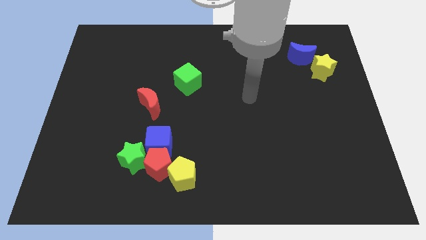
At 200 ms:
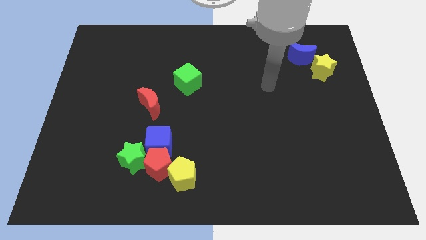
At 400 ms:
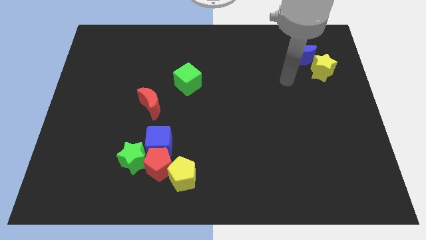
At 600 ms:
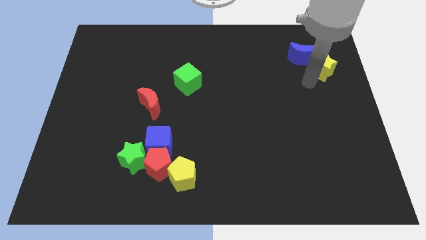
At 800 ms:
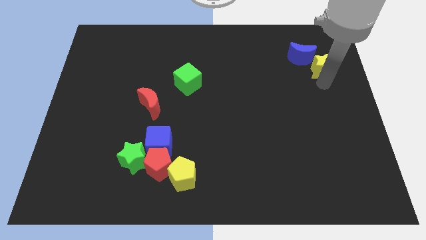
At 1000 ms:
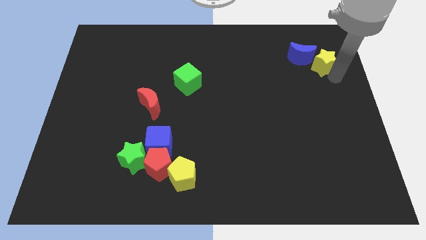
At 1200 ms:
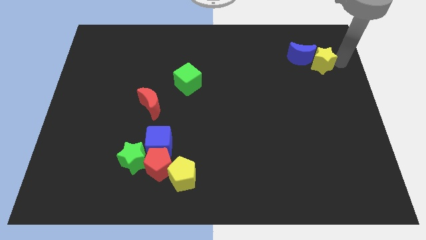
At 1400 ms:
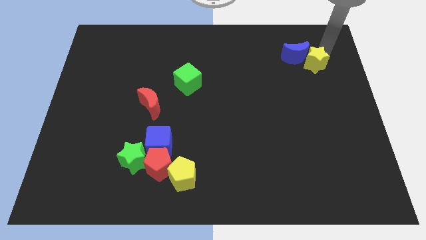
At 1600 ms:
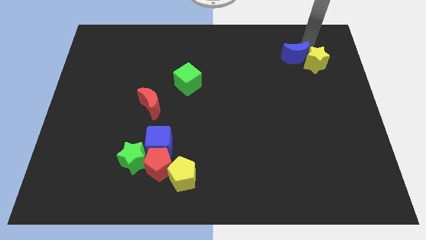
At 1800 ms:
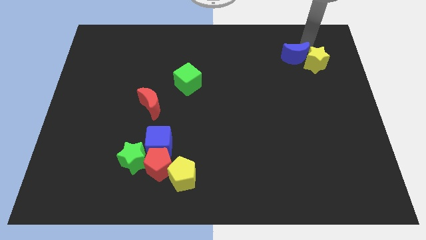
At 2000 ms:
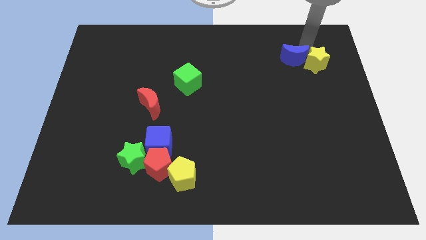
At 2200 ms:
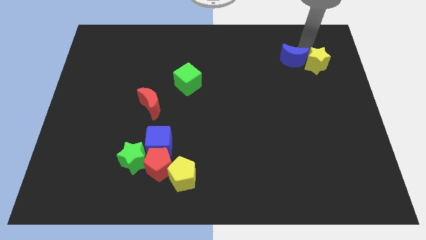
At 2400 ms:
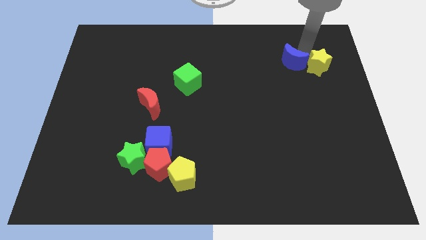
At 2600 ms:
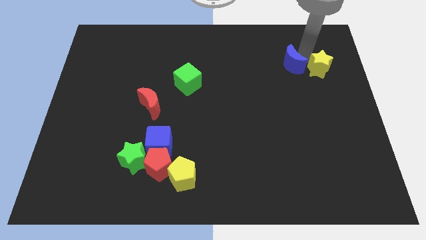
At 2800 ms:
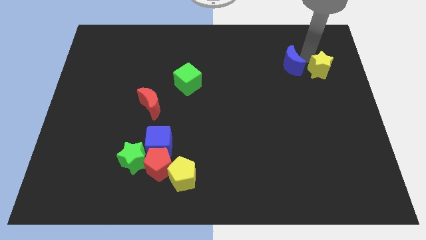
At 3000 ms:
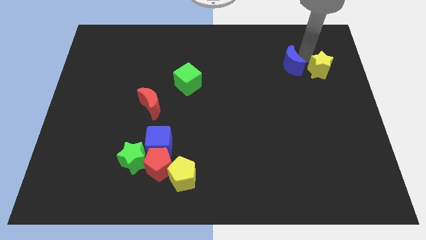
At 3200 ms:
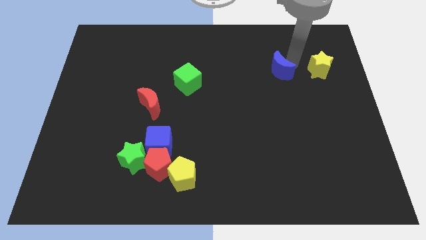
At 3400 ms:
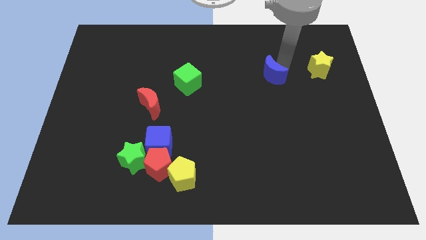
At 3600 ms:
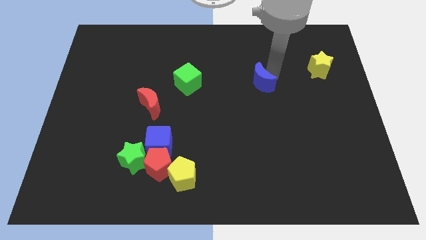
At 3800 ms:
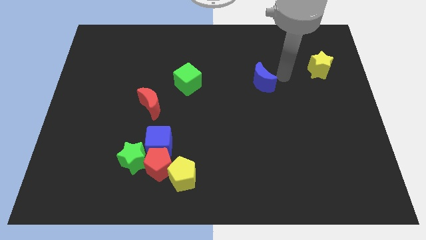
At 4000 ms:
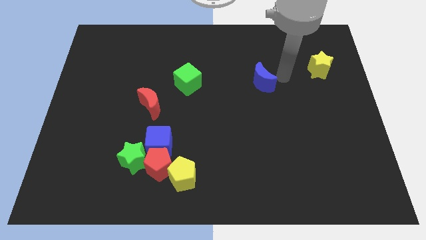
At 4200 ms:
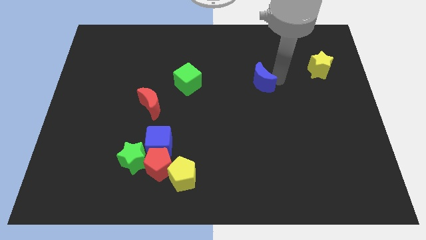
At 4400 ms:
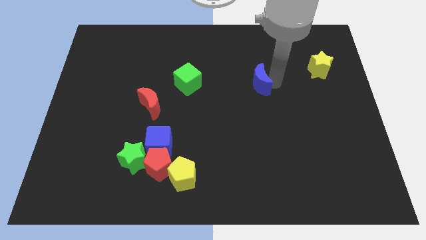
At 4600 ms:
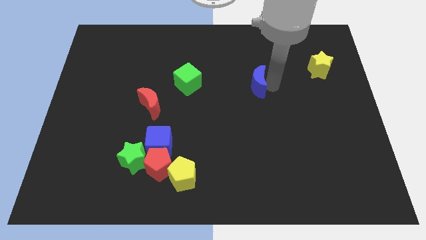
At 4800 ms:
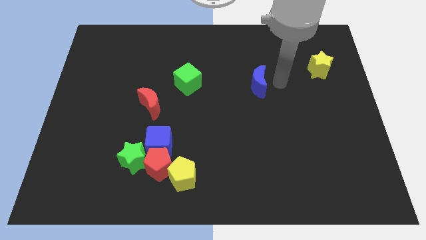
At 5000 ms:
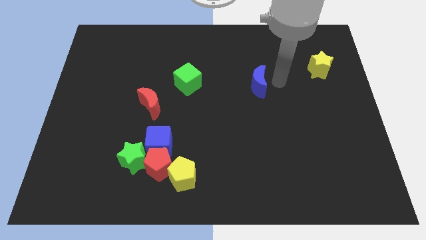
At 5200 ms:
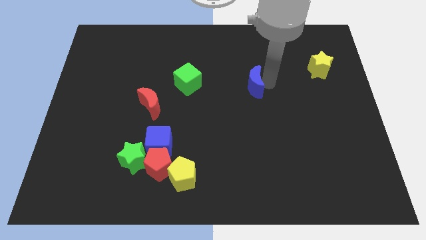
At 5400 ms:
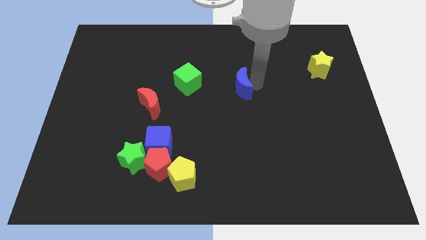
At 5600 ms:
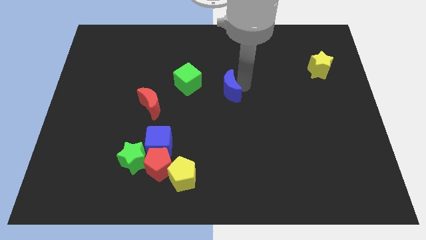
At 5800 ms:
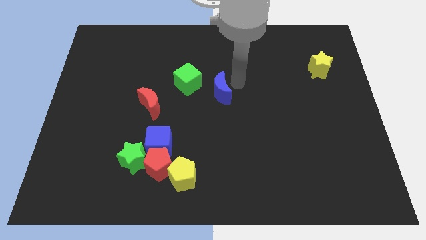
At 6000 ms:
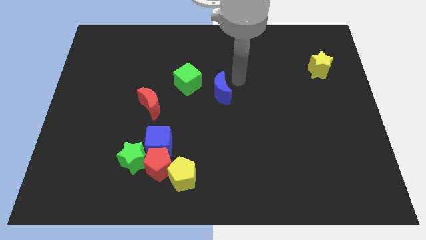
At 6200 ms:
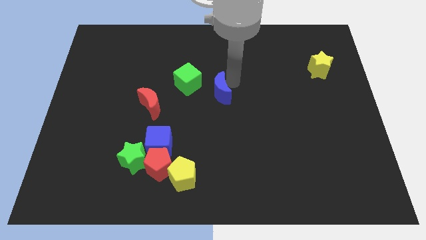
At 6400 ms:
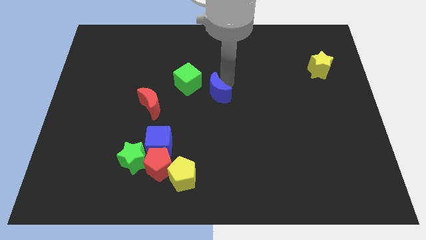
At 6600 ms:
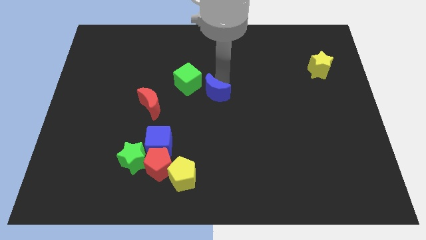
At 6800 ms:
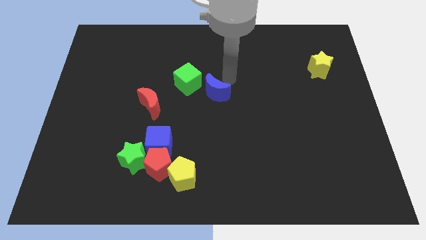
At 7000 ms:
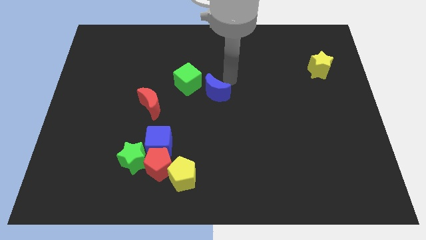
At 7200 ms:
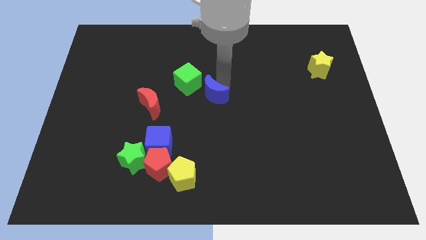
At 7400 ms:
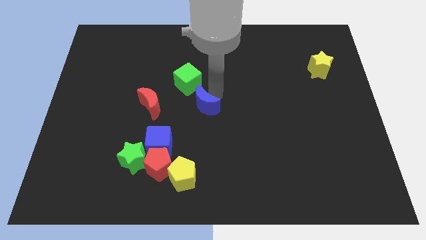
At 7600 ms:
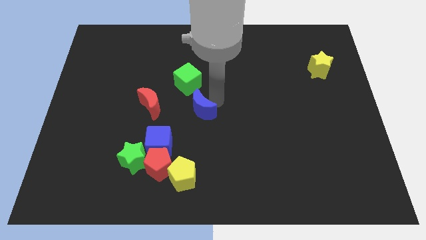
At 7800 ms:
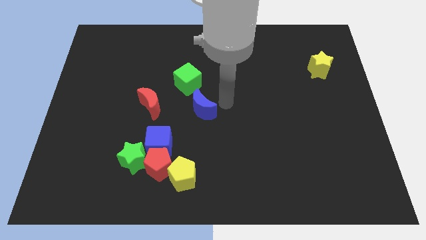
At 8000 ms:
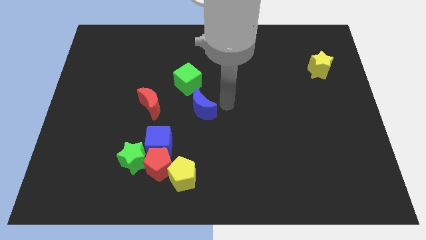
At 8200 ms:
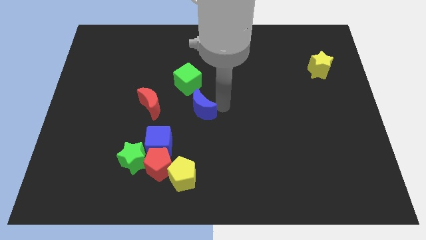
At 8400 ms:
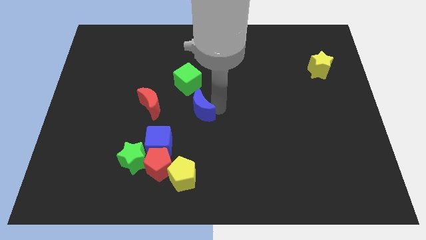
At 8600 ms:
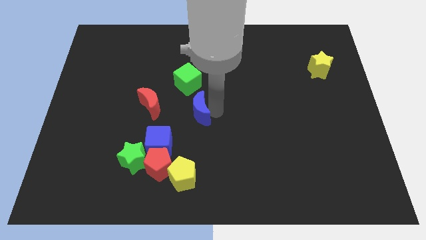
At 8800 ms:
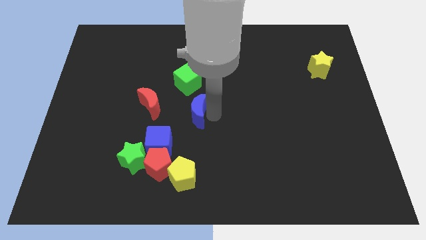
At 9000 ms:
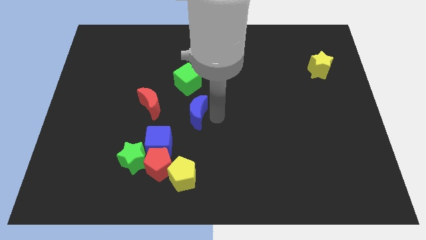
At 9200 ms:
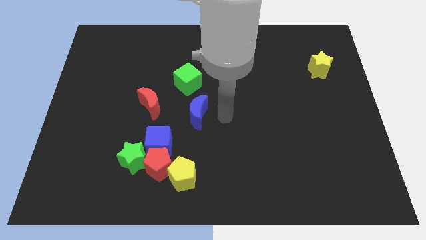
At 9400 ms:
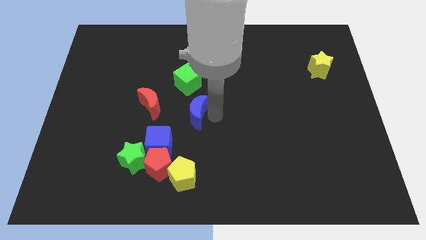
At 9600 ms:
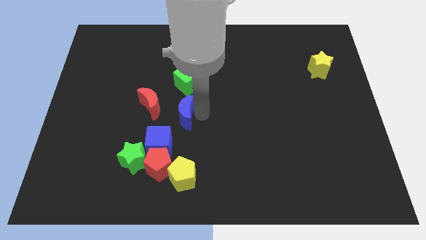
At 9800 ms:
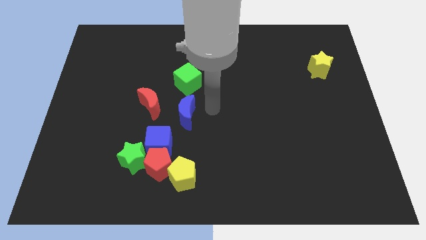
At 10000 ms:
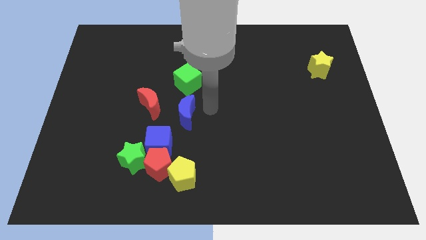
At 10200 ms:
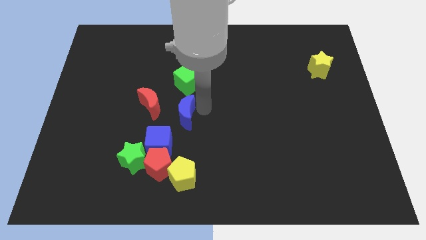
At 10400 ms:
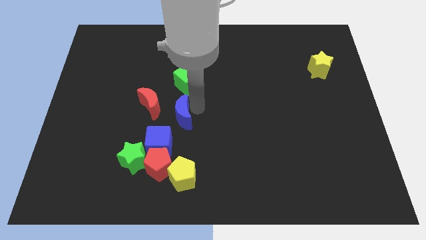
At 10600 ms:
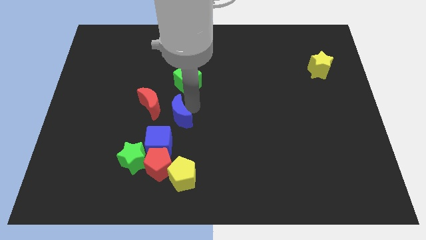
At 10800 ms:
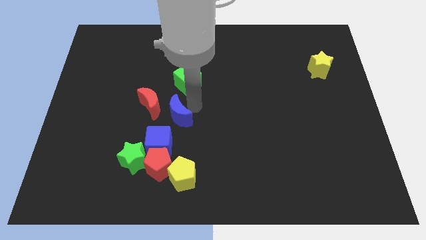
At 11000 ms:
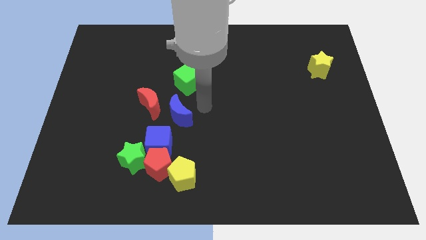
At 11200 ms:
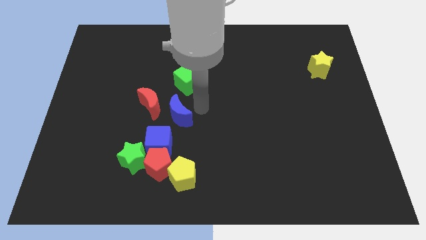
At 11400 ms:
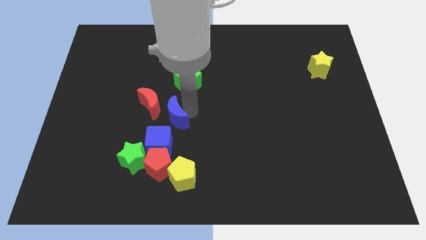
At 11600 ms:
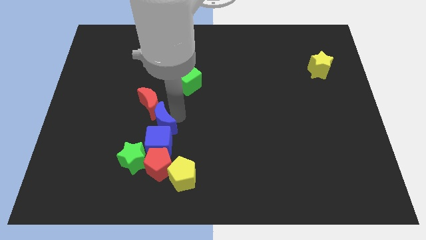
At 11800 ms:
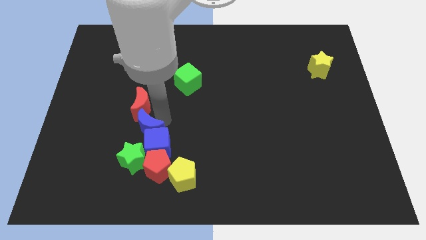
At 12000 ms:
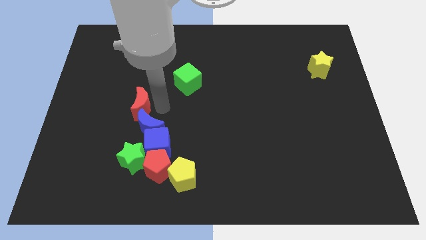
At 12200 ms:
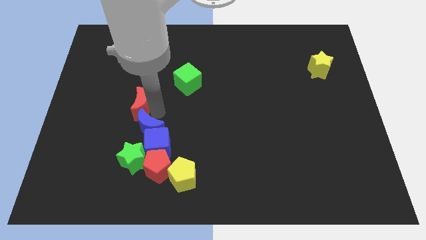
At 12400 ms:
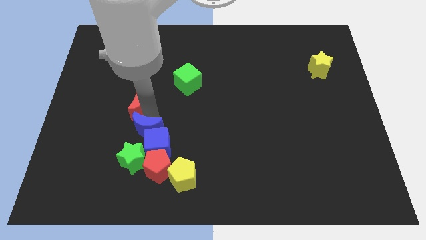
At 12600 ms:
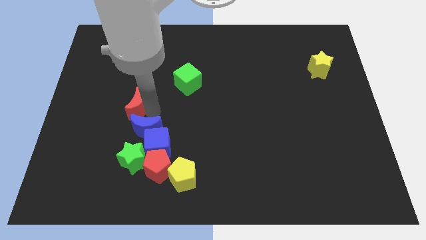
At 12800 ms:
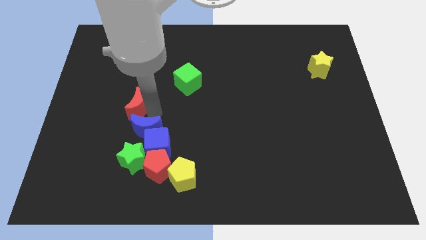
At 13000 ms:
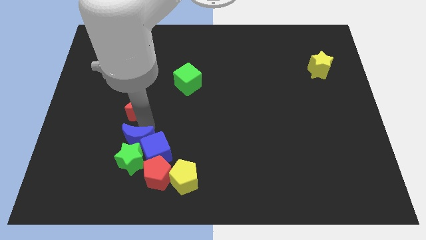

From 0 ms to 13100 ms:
push the blue moon next to the green star
